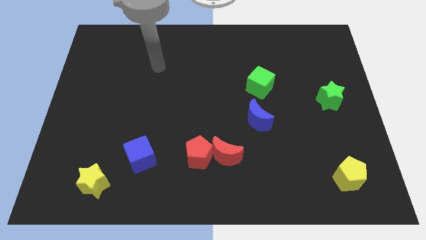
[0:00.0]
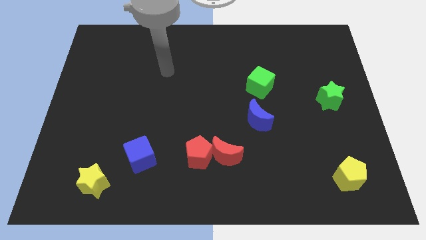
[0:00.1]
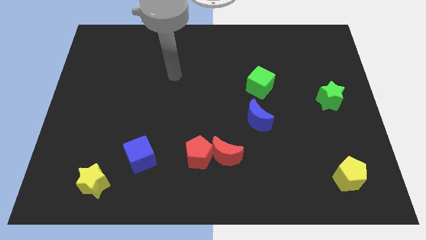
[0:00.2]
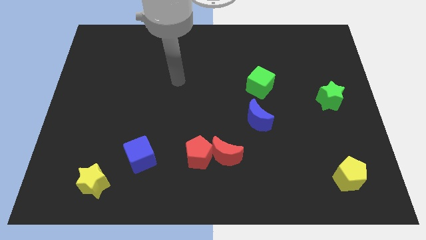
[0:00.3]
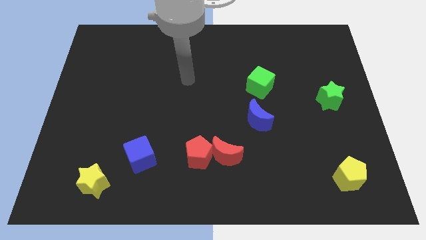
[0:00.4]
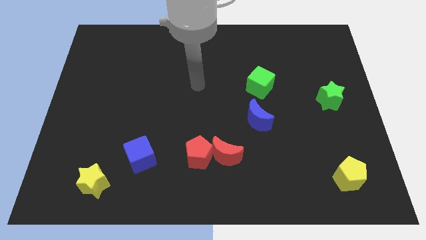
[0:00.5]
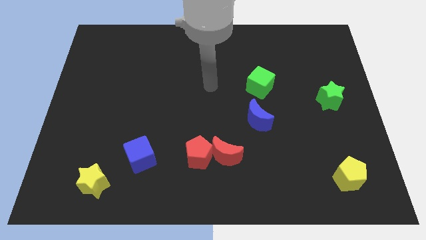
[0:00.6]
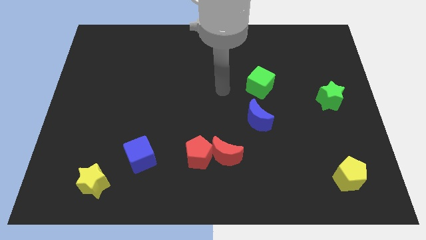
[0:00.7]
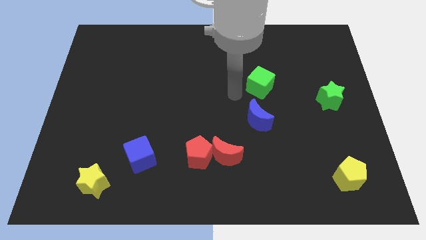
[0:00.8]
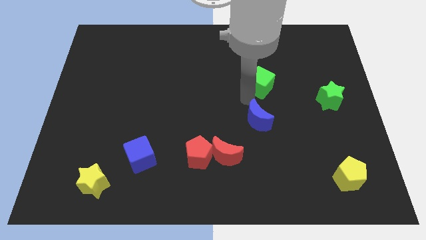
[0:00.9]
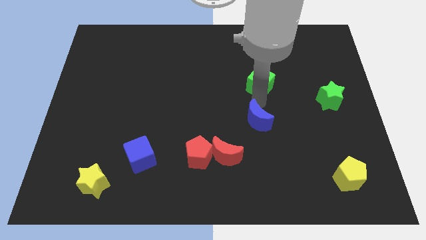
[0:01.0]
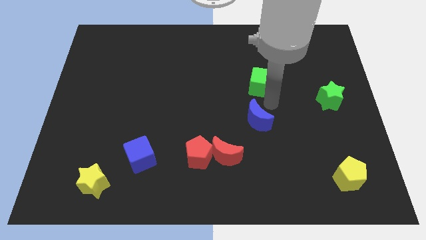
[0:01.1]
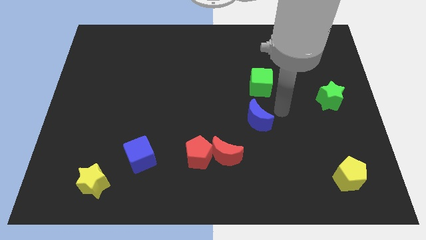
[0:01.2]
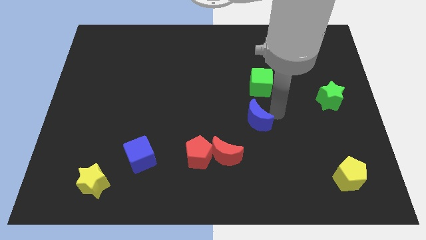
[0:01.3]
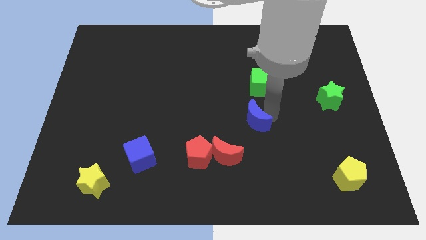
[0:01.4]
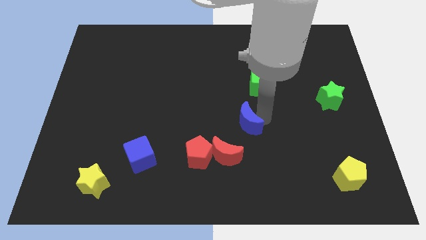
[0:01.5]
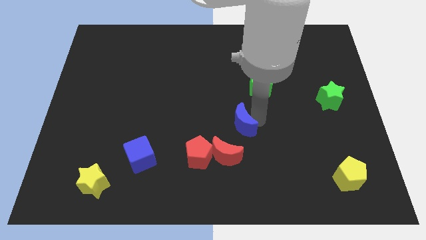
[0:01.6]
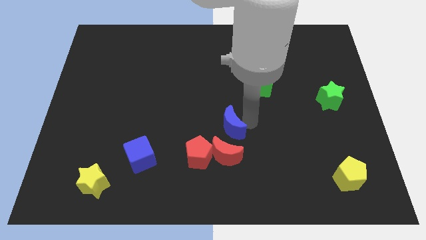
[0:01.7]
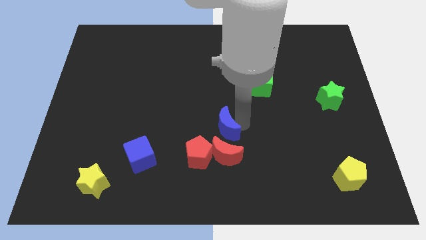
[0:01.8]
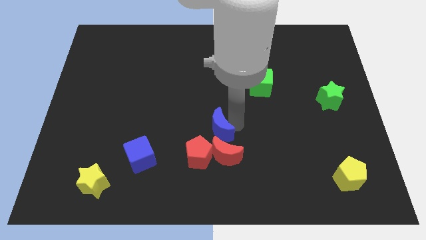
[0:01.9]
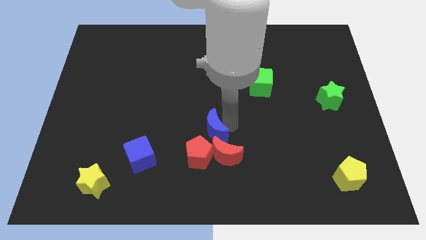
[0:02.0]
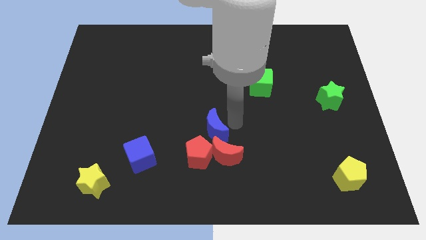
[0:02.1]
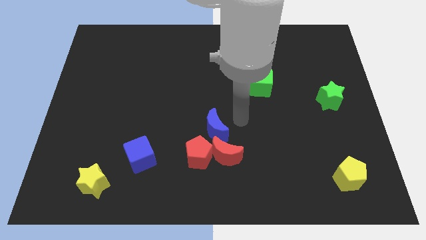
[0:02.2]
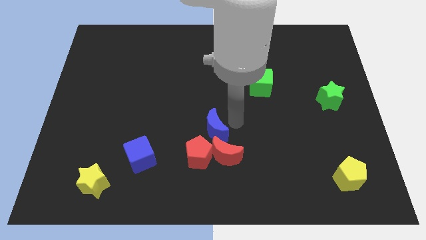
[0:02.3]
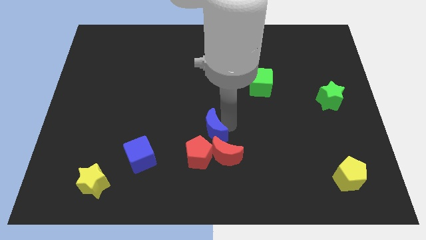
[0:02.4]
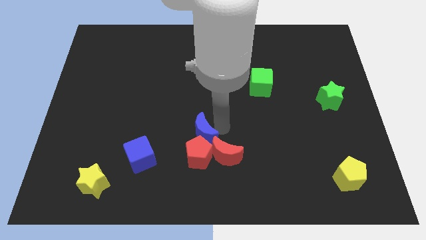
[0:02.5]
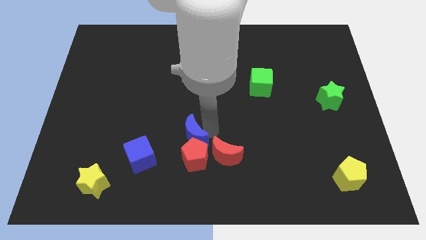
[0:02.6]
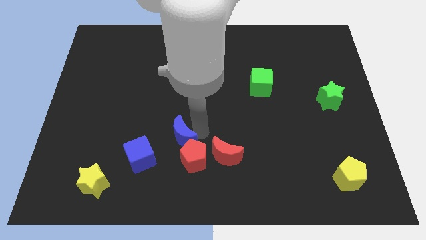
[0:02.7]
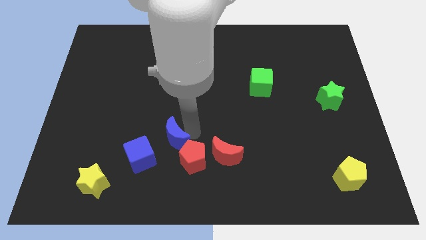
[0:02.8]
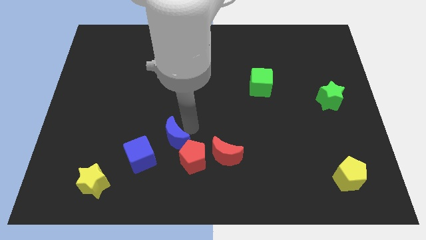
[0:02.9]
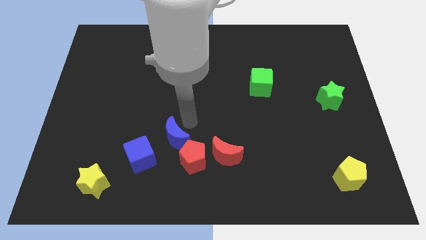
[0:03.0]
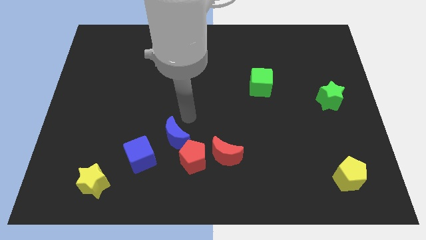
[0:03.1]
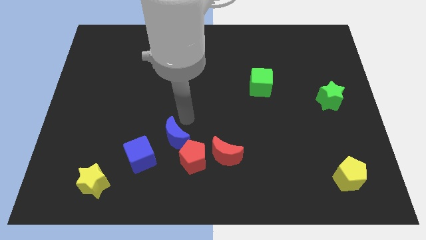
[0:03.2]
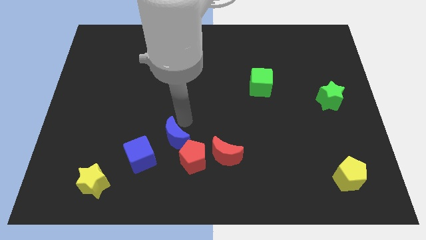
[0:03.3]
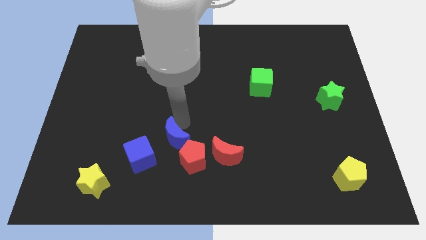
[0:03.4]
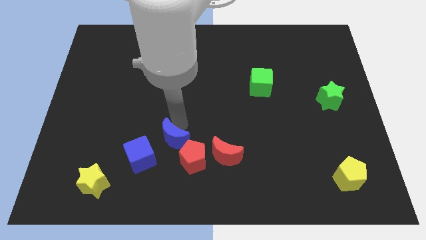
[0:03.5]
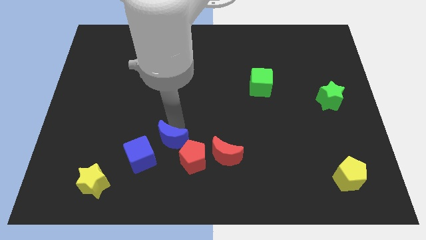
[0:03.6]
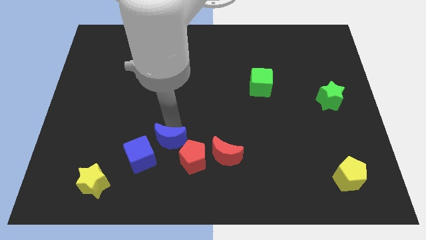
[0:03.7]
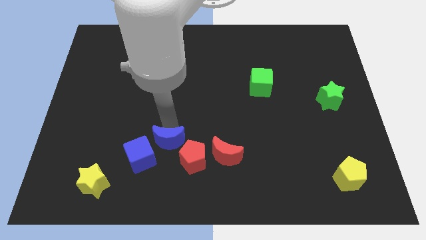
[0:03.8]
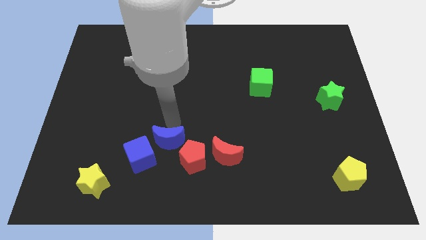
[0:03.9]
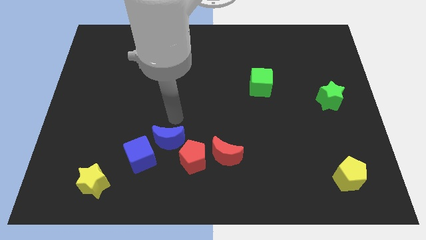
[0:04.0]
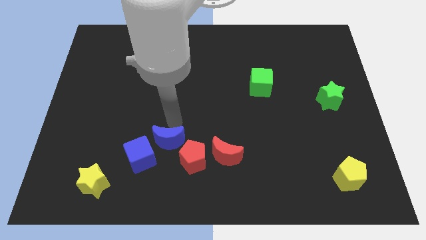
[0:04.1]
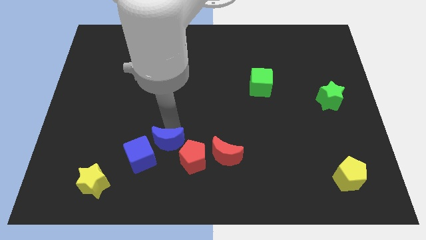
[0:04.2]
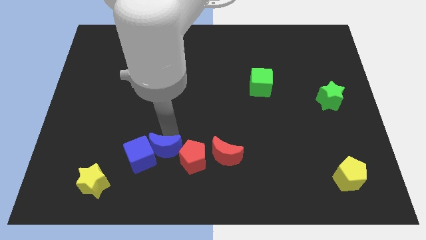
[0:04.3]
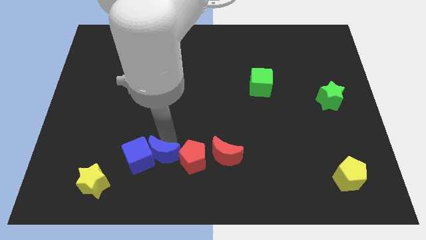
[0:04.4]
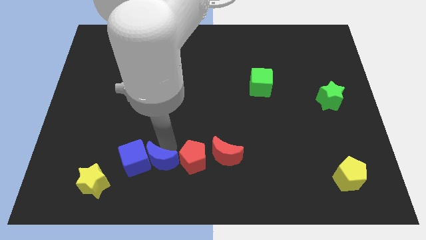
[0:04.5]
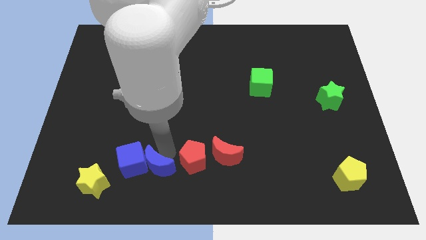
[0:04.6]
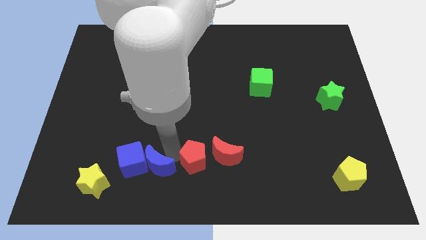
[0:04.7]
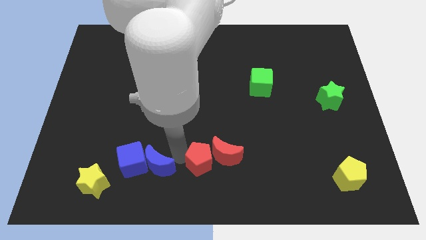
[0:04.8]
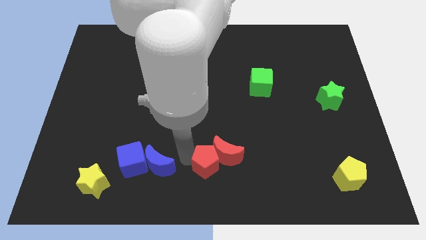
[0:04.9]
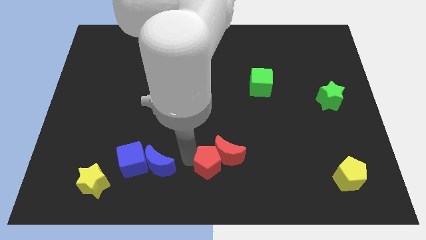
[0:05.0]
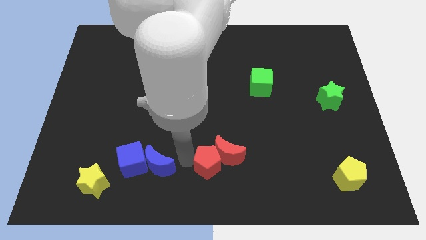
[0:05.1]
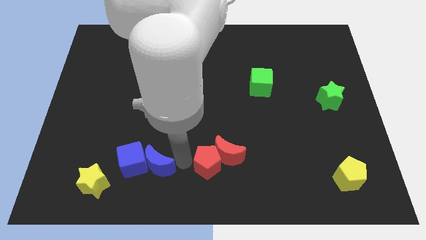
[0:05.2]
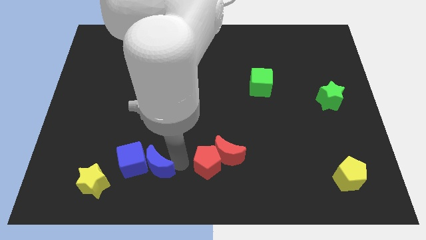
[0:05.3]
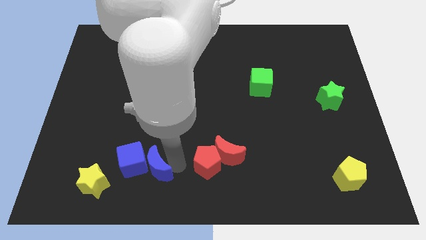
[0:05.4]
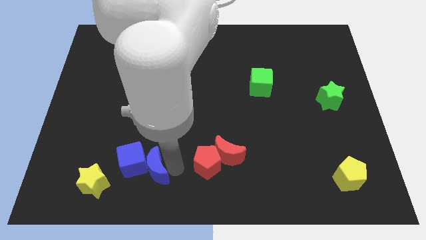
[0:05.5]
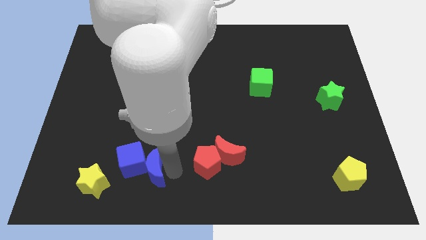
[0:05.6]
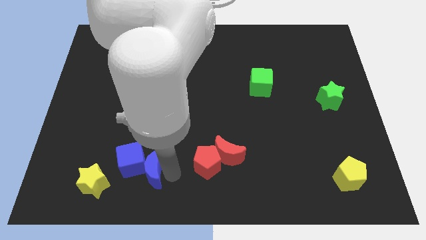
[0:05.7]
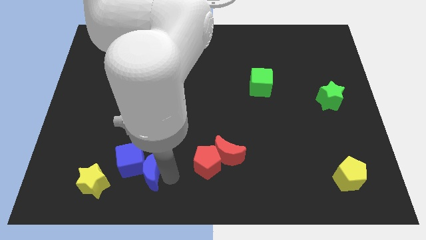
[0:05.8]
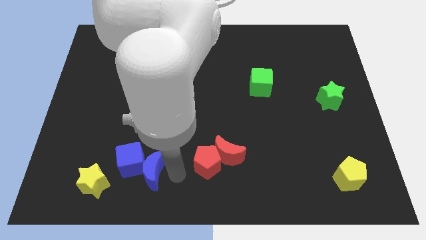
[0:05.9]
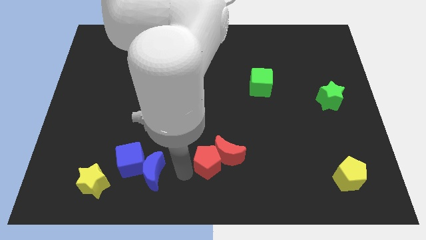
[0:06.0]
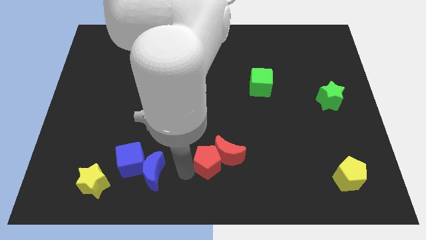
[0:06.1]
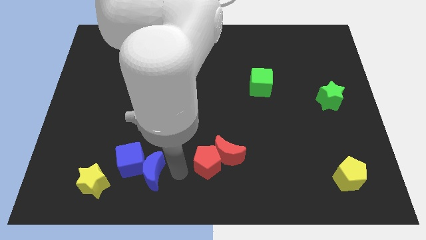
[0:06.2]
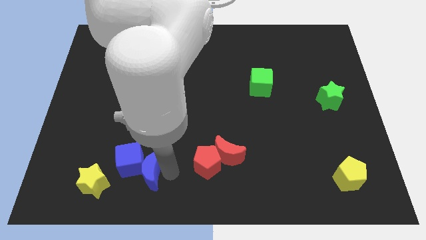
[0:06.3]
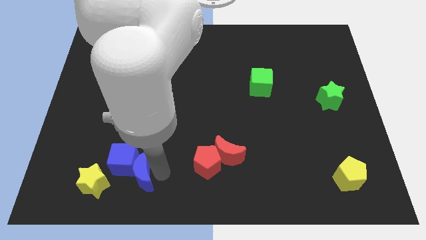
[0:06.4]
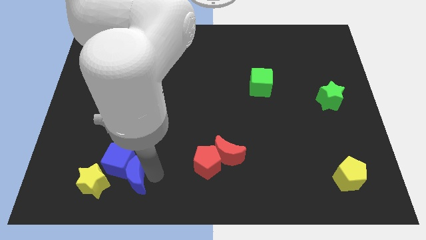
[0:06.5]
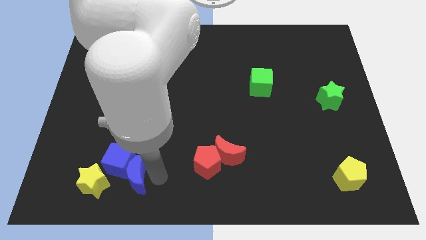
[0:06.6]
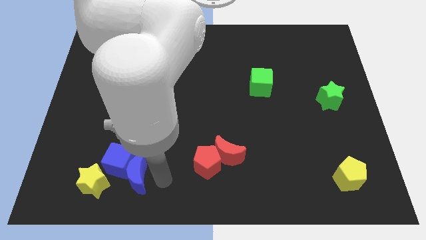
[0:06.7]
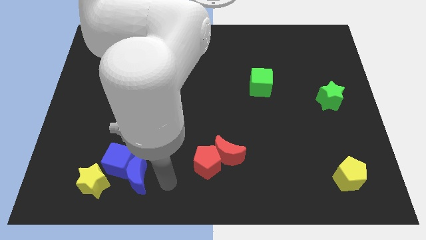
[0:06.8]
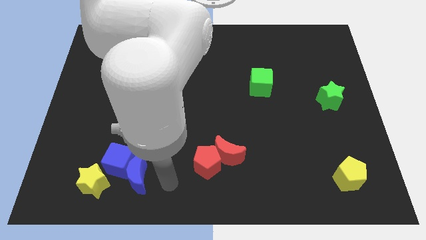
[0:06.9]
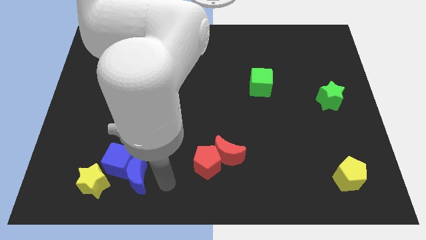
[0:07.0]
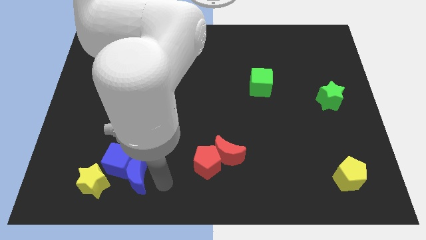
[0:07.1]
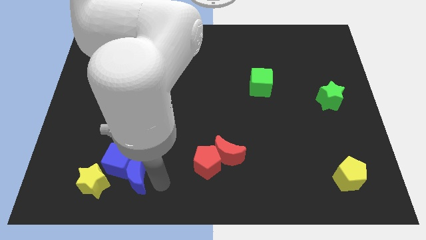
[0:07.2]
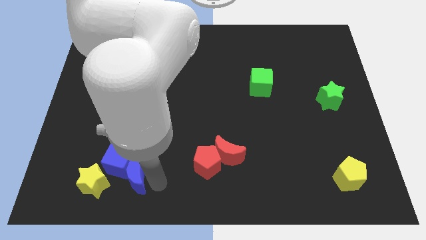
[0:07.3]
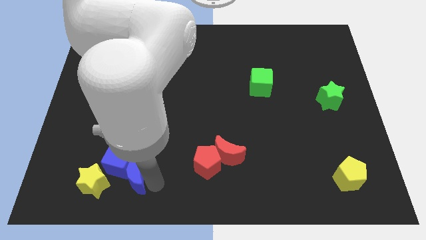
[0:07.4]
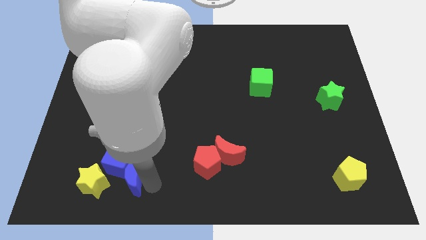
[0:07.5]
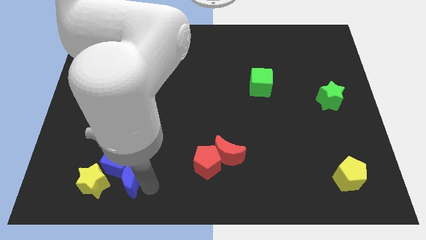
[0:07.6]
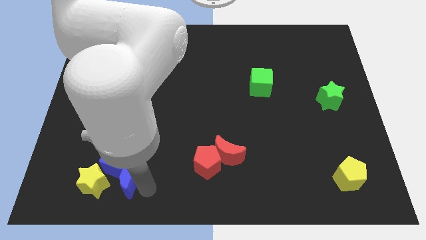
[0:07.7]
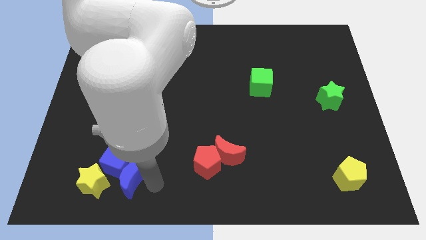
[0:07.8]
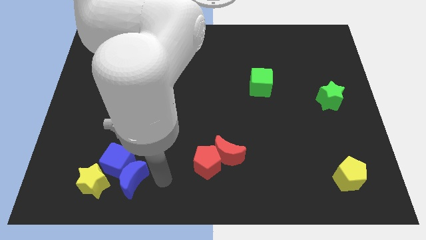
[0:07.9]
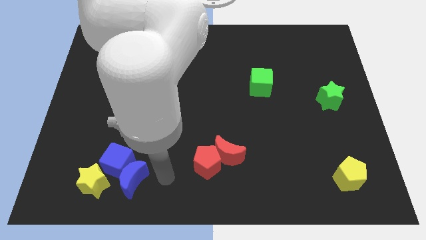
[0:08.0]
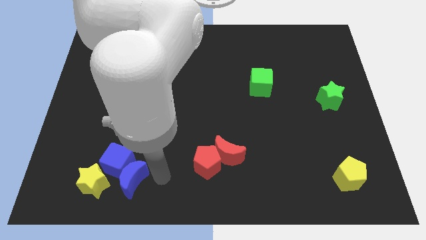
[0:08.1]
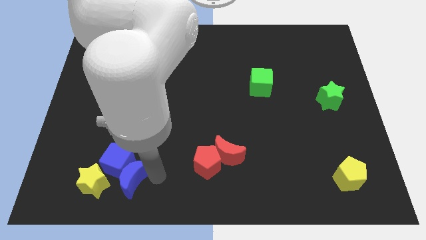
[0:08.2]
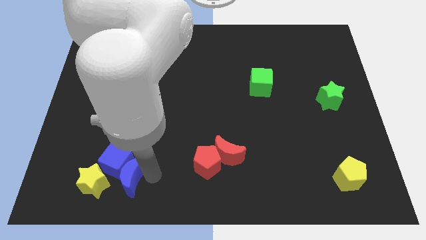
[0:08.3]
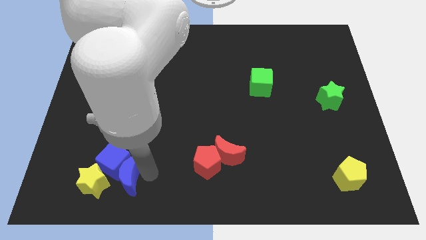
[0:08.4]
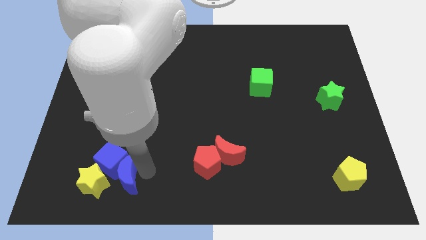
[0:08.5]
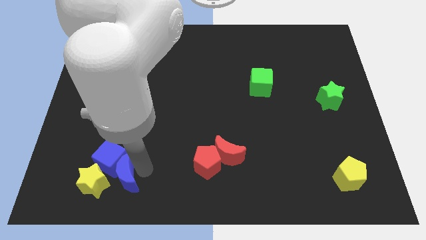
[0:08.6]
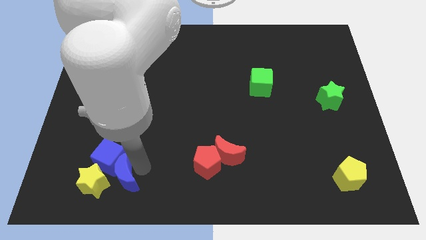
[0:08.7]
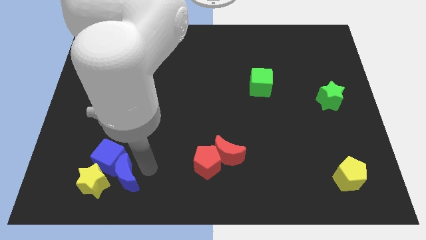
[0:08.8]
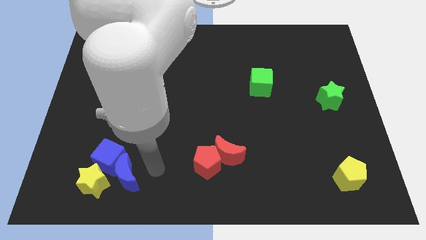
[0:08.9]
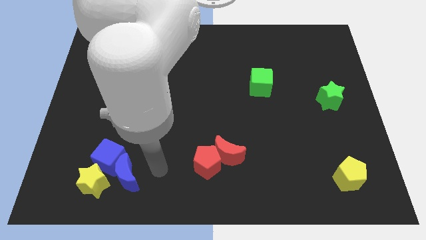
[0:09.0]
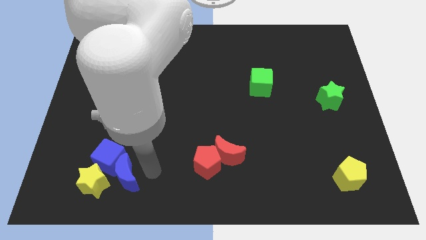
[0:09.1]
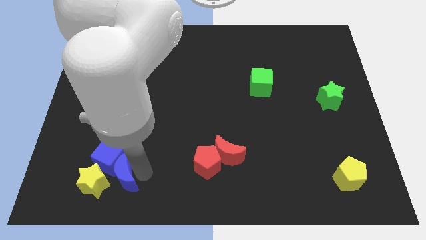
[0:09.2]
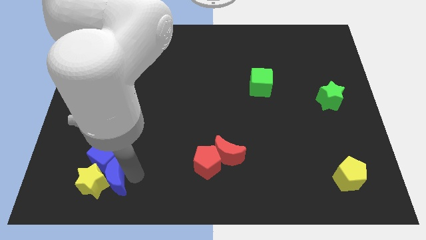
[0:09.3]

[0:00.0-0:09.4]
put the blue moon towards the yellow star
